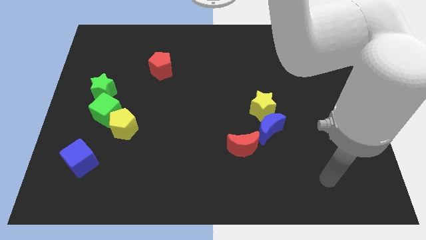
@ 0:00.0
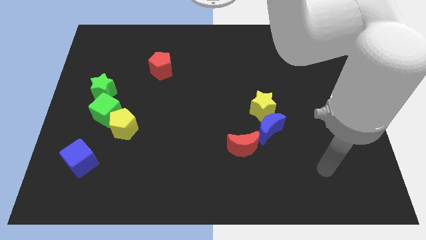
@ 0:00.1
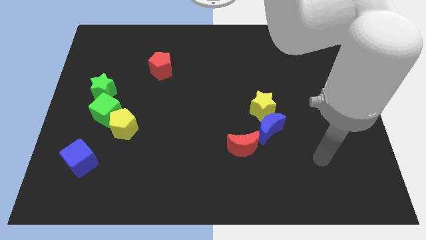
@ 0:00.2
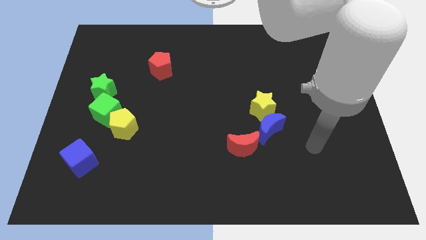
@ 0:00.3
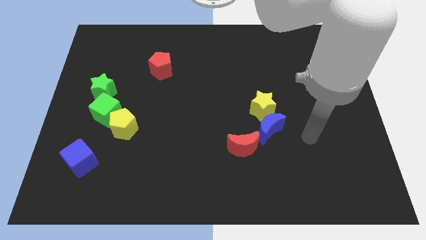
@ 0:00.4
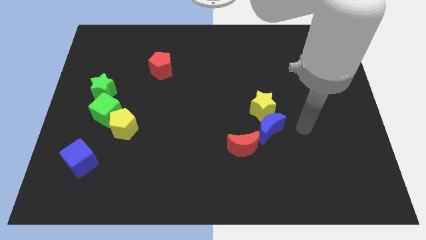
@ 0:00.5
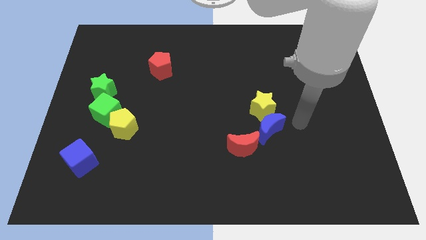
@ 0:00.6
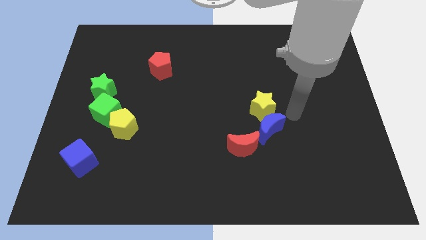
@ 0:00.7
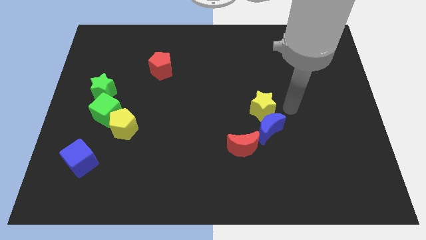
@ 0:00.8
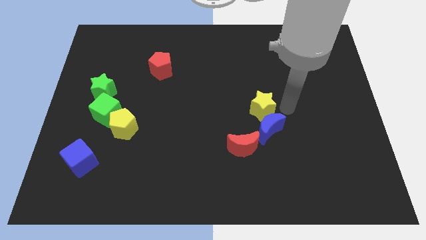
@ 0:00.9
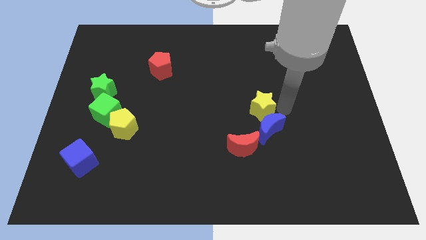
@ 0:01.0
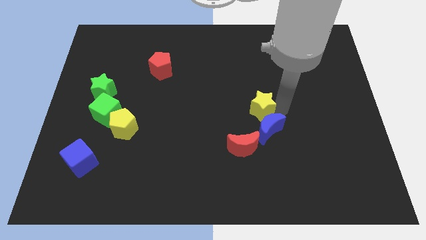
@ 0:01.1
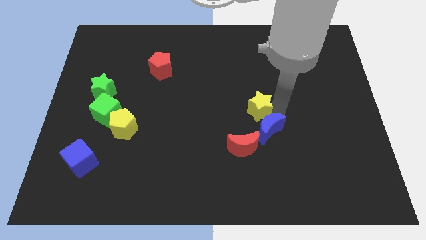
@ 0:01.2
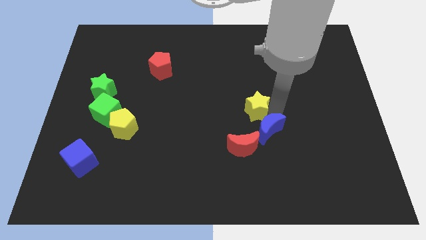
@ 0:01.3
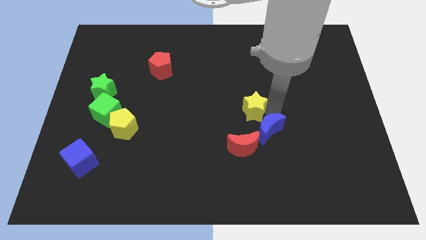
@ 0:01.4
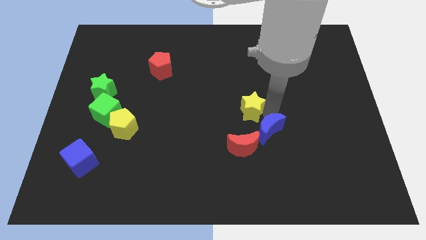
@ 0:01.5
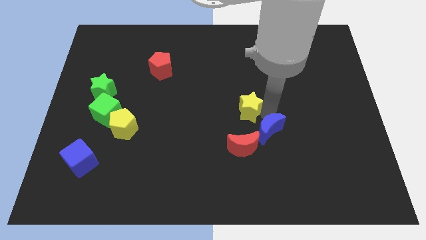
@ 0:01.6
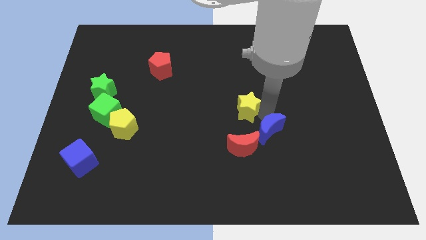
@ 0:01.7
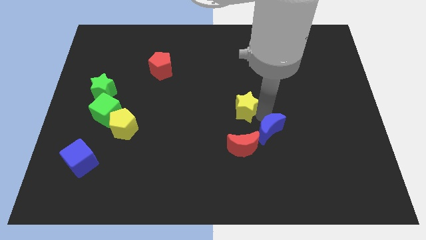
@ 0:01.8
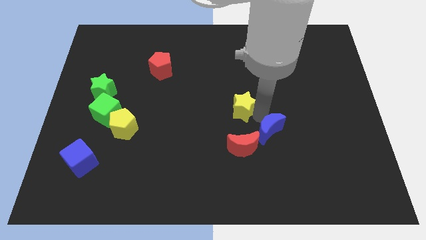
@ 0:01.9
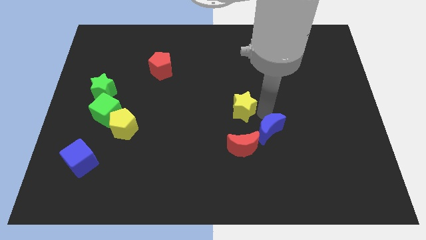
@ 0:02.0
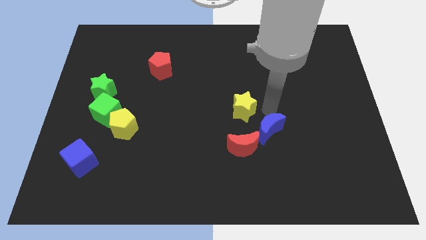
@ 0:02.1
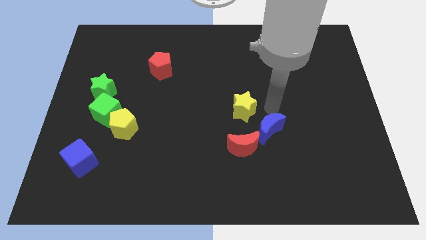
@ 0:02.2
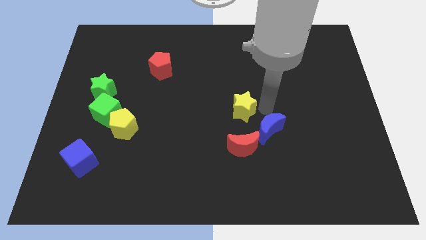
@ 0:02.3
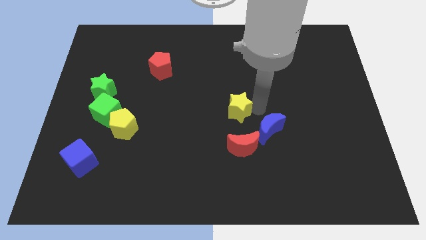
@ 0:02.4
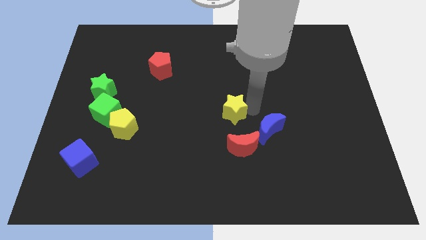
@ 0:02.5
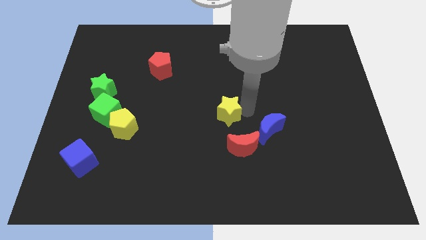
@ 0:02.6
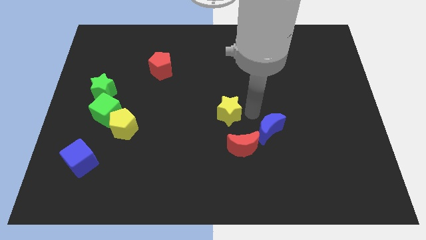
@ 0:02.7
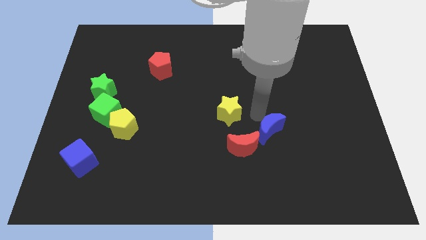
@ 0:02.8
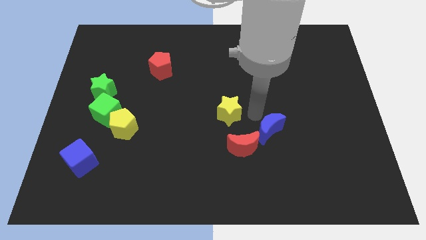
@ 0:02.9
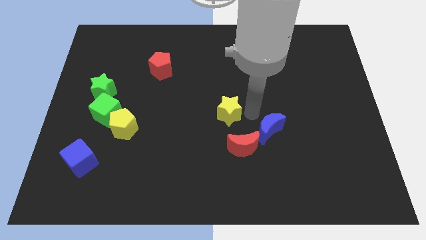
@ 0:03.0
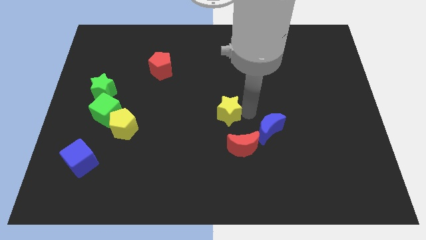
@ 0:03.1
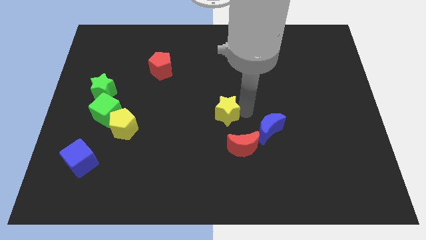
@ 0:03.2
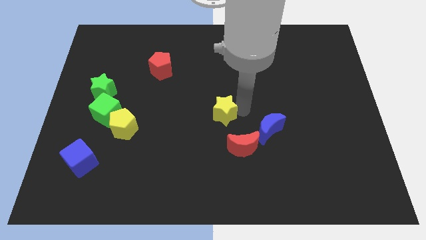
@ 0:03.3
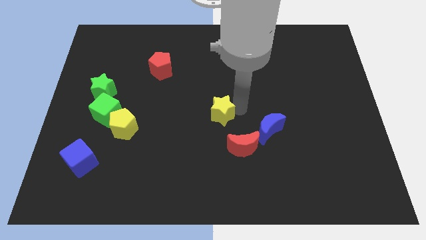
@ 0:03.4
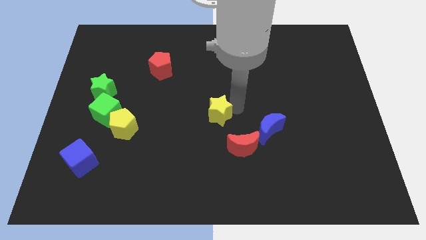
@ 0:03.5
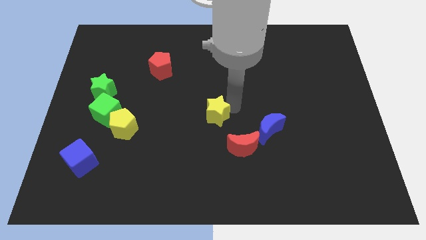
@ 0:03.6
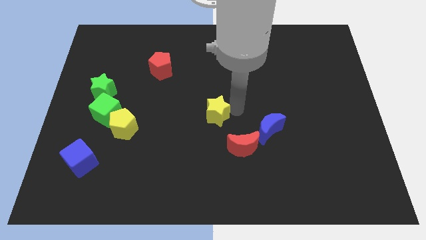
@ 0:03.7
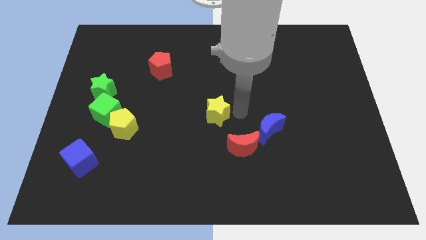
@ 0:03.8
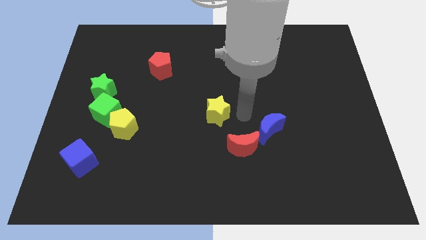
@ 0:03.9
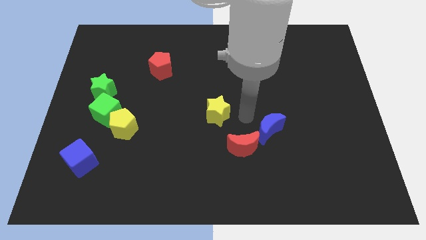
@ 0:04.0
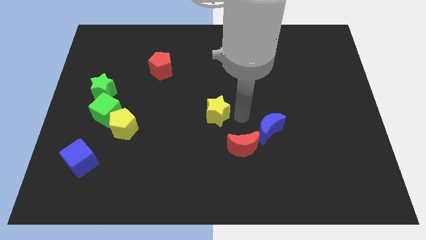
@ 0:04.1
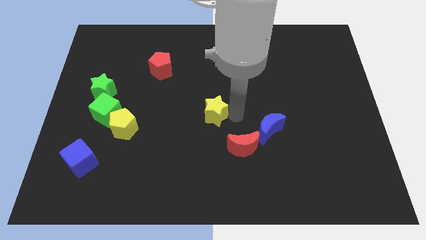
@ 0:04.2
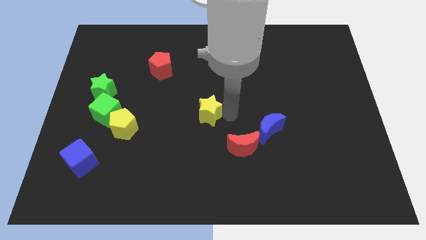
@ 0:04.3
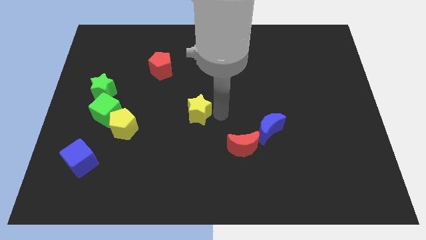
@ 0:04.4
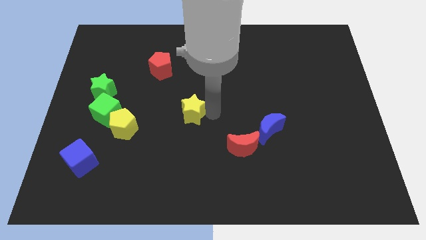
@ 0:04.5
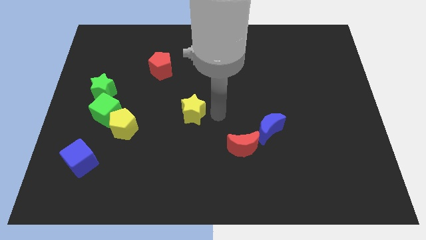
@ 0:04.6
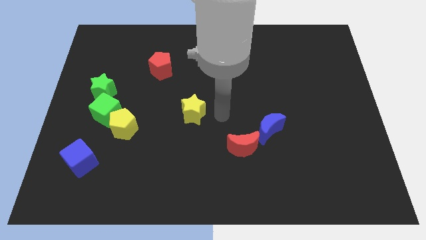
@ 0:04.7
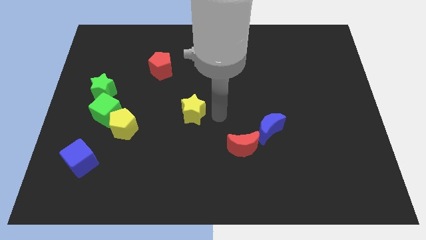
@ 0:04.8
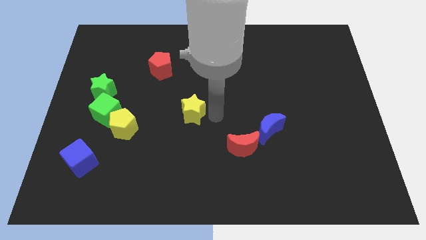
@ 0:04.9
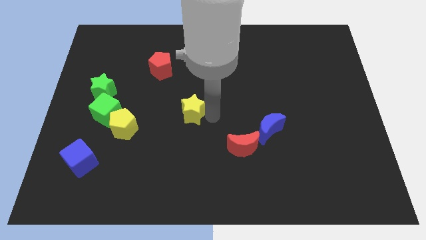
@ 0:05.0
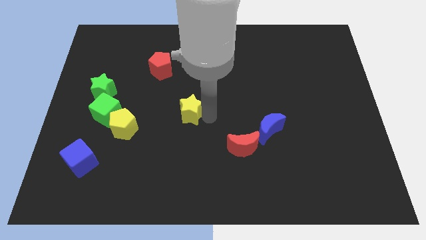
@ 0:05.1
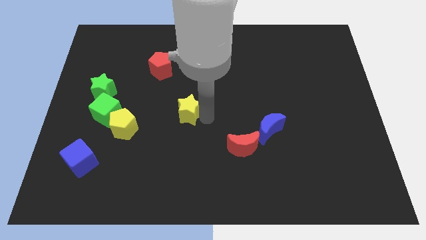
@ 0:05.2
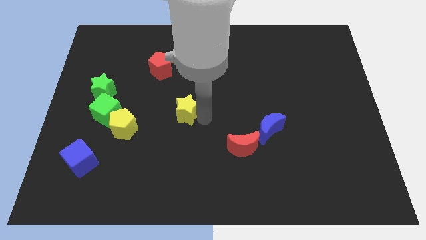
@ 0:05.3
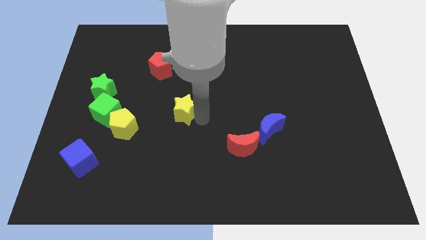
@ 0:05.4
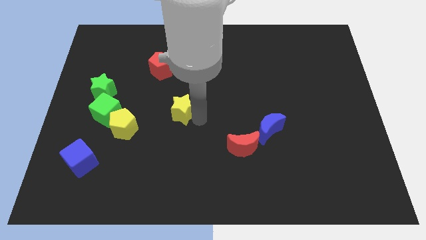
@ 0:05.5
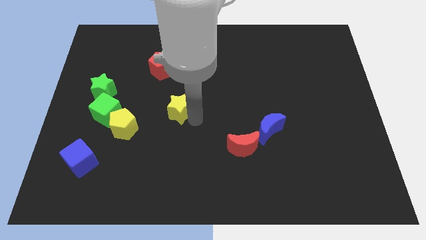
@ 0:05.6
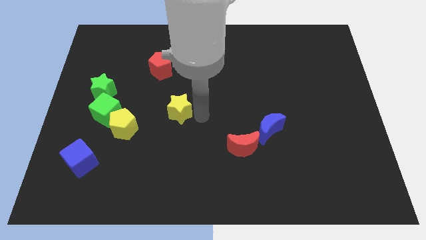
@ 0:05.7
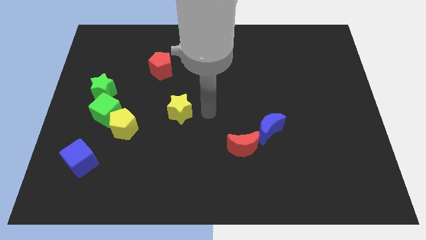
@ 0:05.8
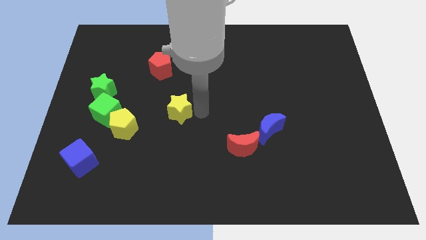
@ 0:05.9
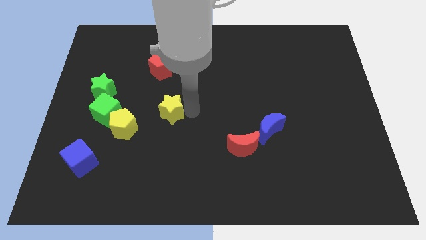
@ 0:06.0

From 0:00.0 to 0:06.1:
move the yellow star left

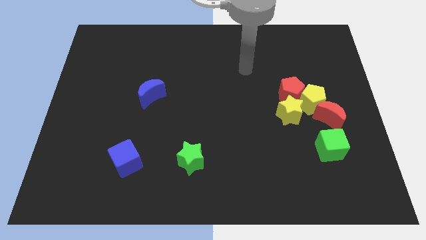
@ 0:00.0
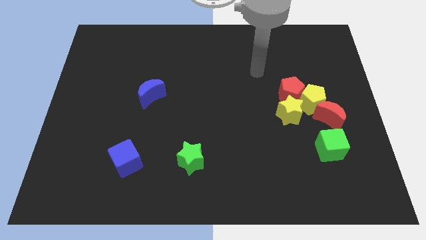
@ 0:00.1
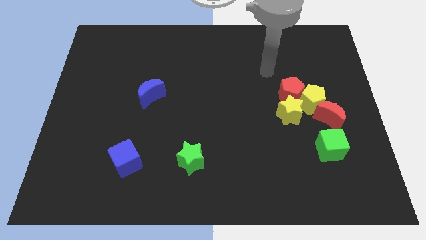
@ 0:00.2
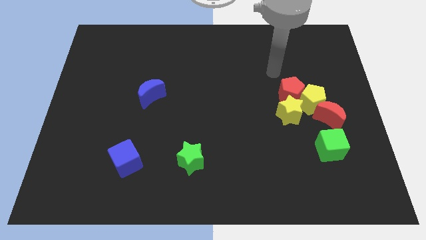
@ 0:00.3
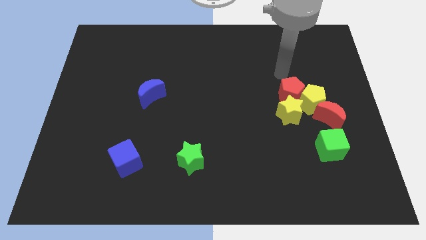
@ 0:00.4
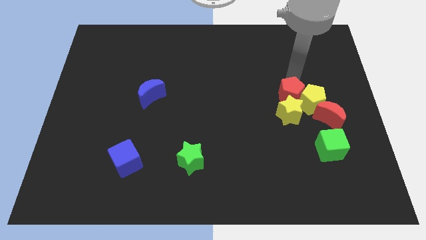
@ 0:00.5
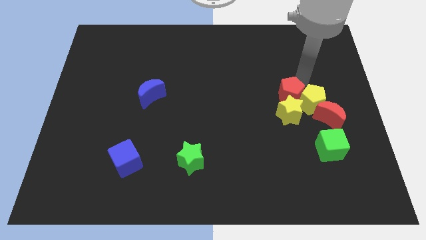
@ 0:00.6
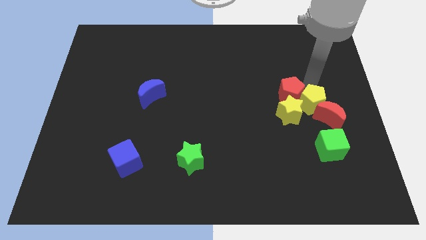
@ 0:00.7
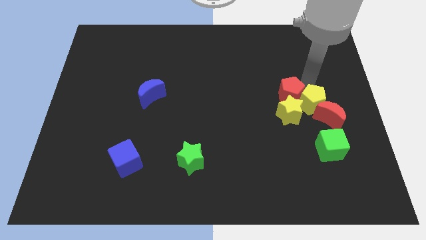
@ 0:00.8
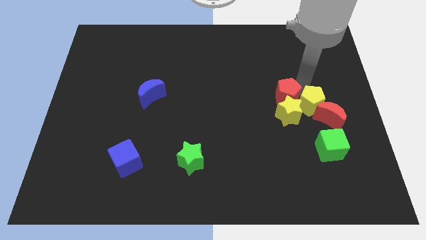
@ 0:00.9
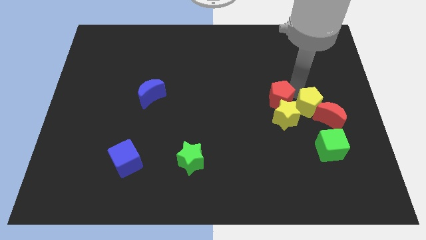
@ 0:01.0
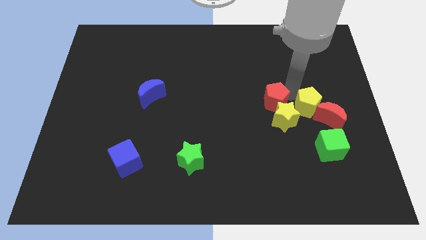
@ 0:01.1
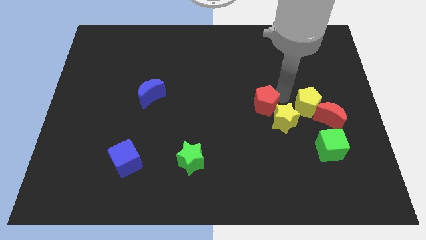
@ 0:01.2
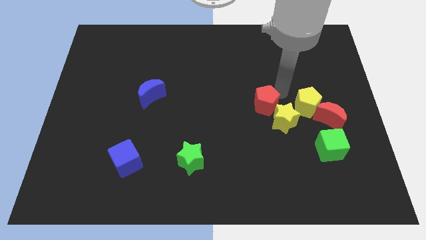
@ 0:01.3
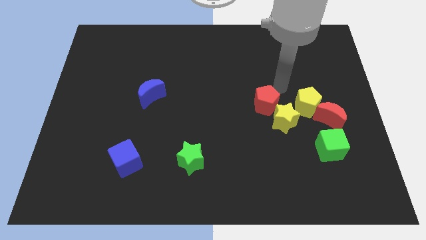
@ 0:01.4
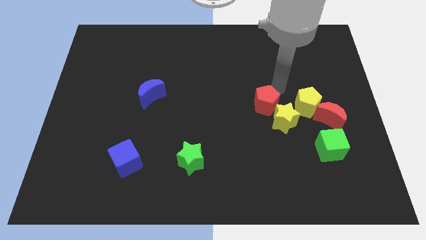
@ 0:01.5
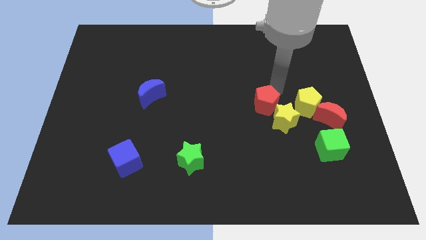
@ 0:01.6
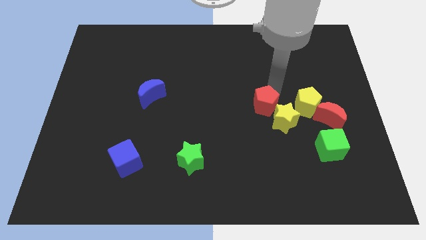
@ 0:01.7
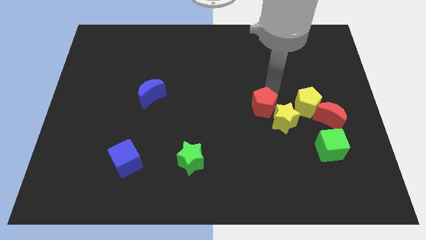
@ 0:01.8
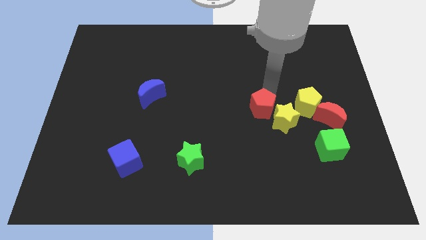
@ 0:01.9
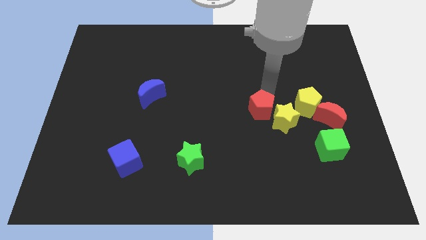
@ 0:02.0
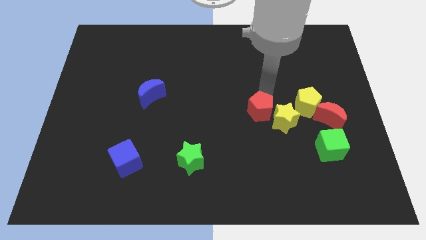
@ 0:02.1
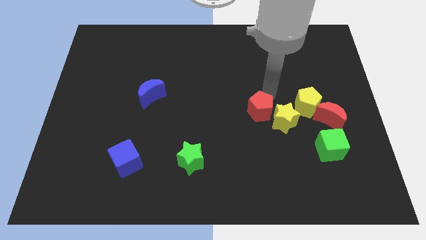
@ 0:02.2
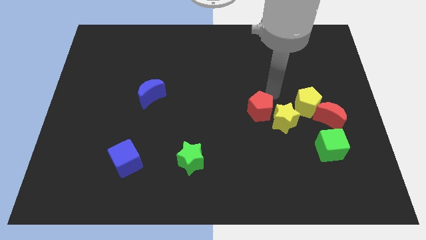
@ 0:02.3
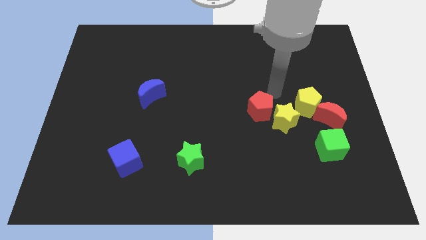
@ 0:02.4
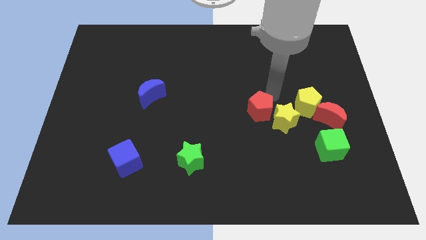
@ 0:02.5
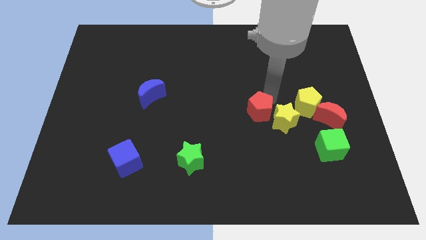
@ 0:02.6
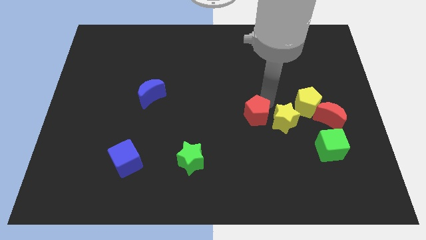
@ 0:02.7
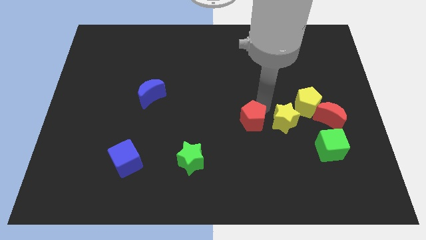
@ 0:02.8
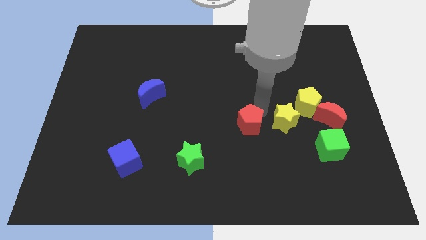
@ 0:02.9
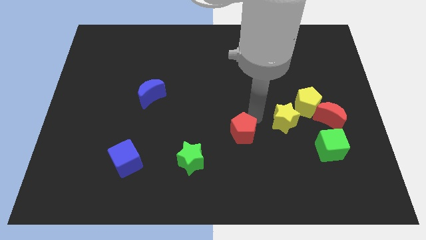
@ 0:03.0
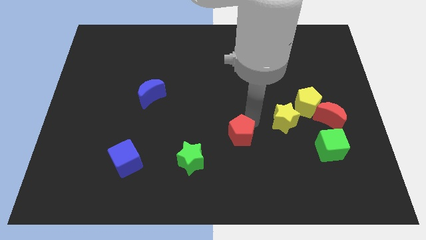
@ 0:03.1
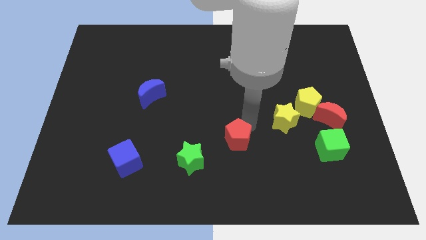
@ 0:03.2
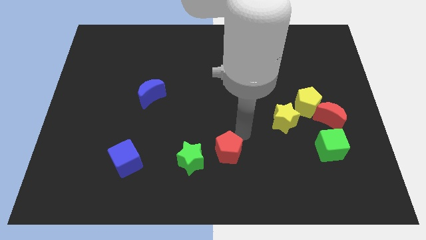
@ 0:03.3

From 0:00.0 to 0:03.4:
push the red pentagon down and left diagonally
